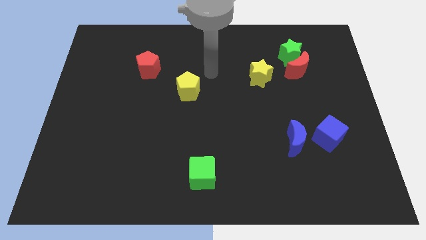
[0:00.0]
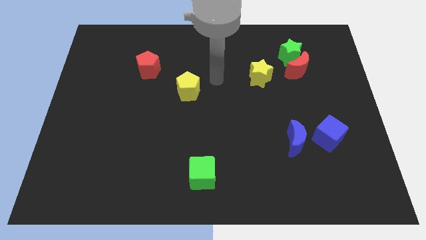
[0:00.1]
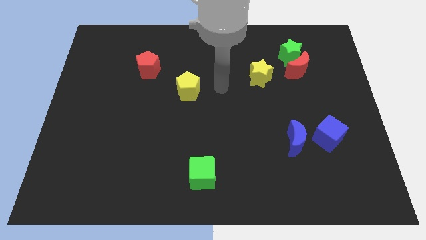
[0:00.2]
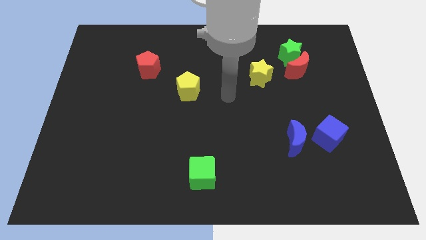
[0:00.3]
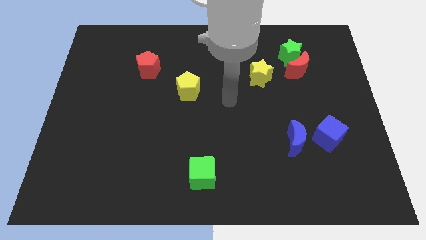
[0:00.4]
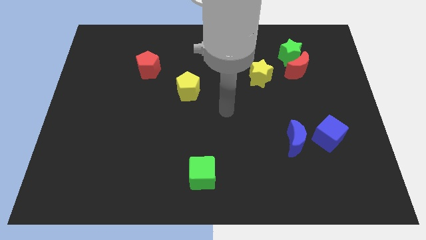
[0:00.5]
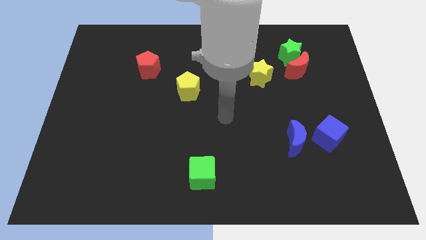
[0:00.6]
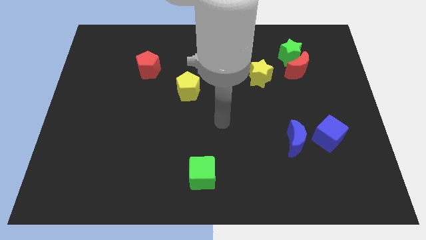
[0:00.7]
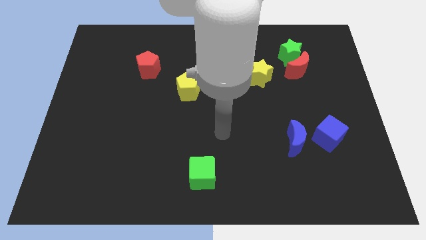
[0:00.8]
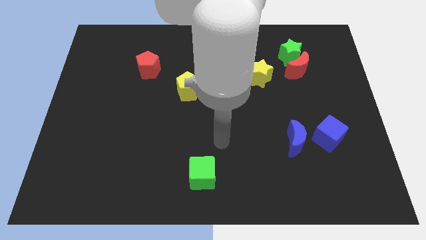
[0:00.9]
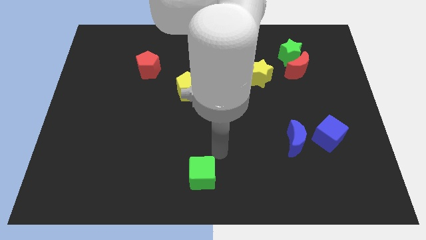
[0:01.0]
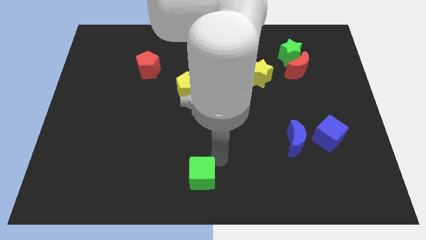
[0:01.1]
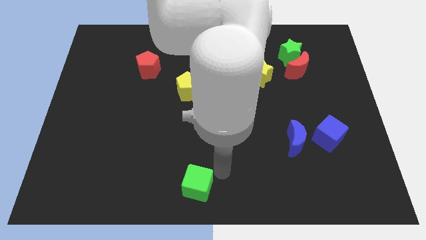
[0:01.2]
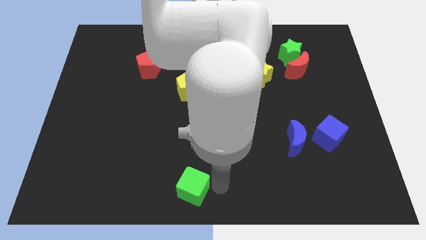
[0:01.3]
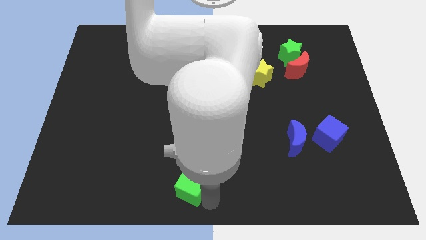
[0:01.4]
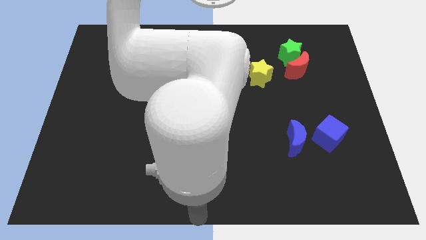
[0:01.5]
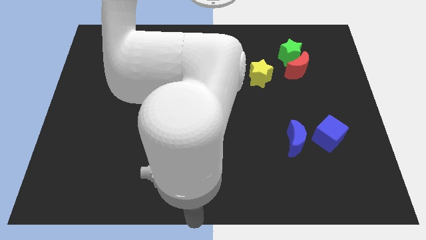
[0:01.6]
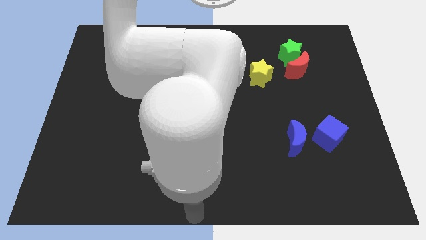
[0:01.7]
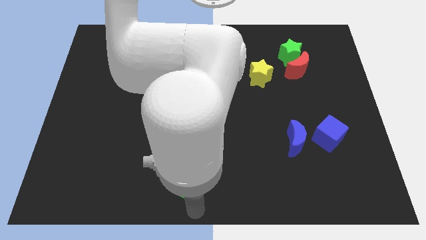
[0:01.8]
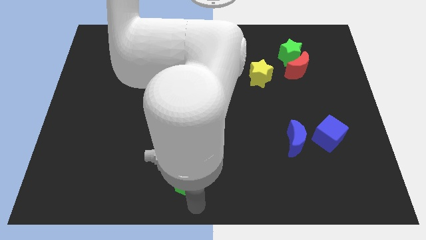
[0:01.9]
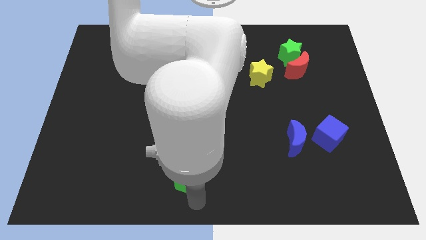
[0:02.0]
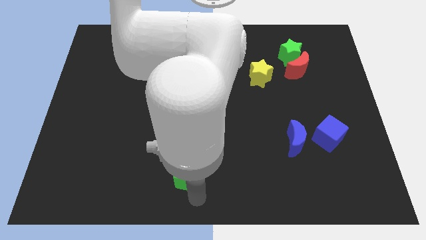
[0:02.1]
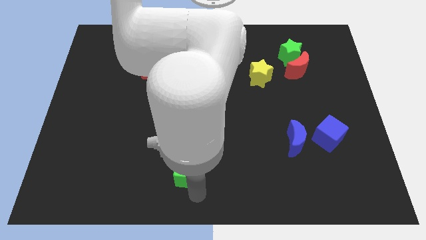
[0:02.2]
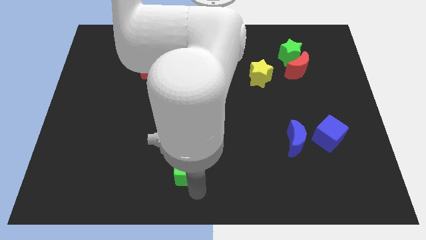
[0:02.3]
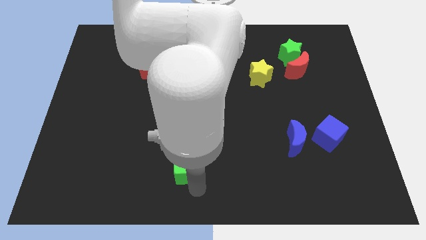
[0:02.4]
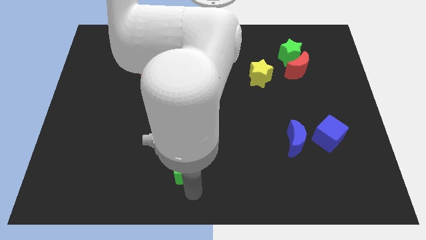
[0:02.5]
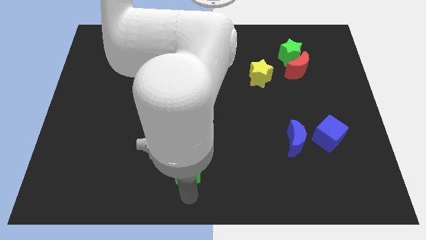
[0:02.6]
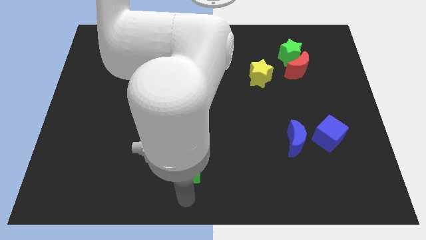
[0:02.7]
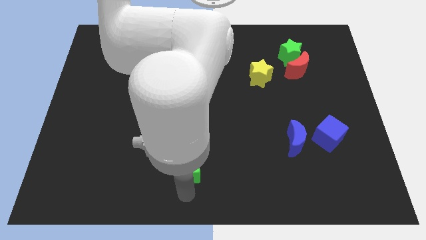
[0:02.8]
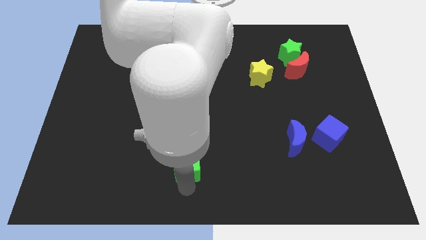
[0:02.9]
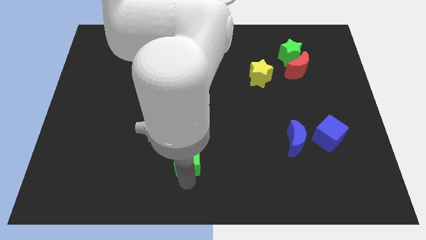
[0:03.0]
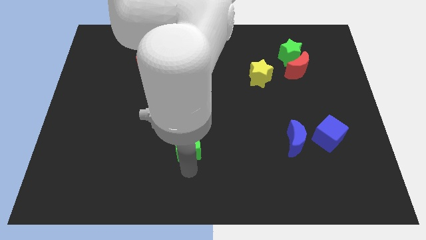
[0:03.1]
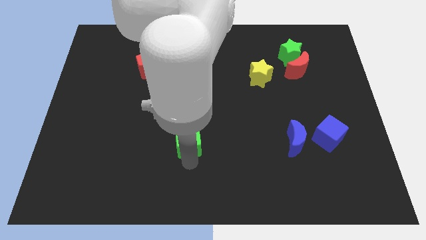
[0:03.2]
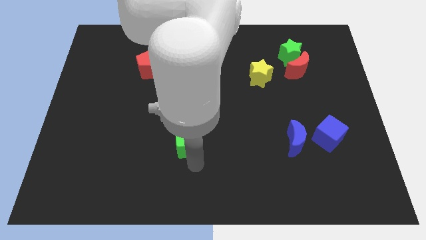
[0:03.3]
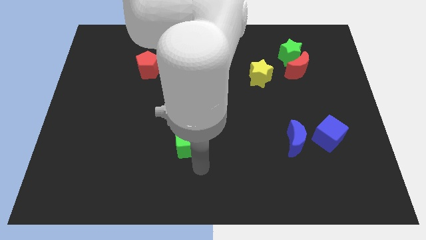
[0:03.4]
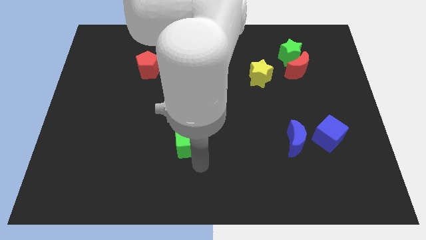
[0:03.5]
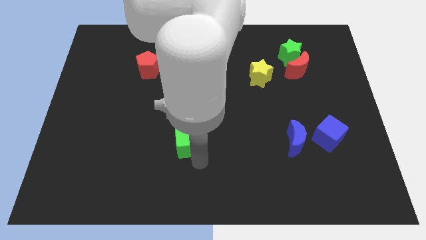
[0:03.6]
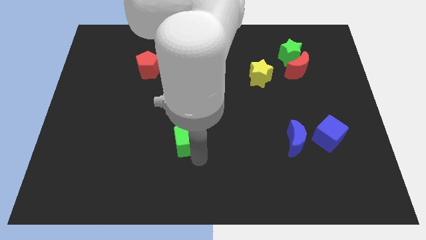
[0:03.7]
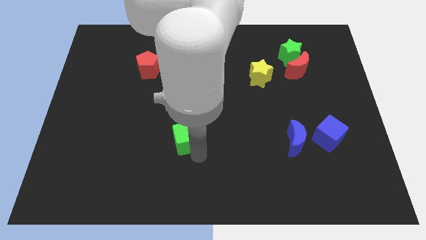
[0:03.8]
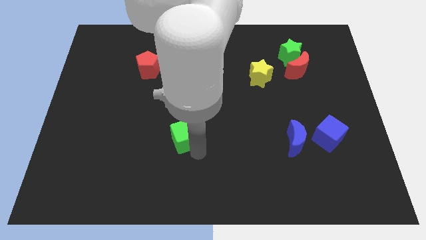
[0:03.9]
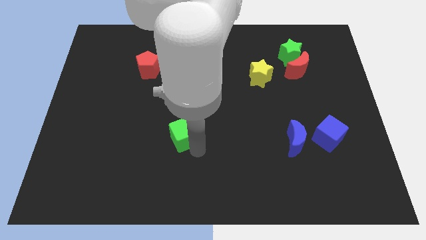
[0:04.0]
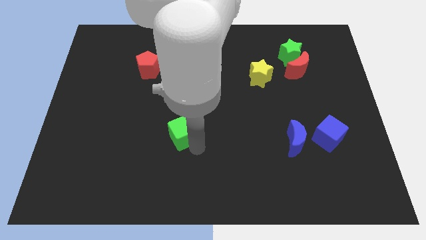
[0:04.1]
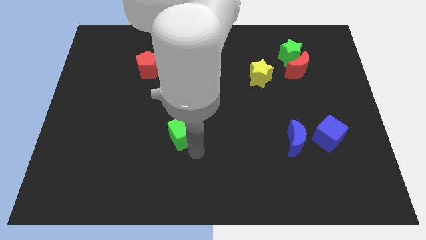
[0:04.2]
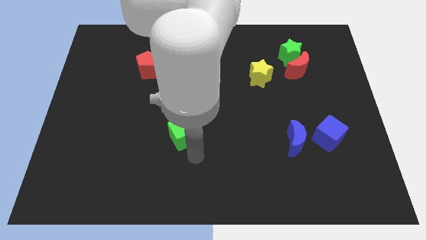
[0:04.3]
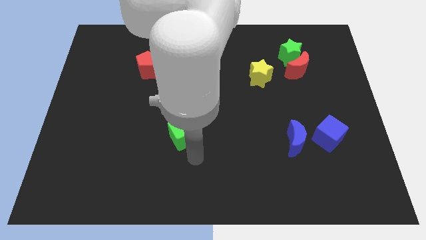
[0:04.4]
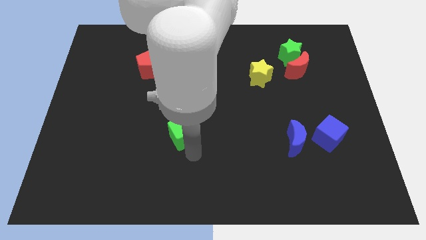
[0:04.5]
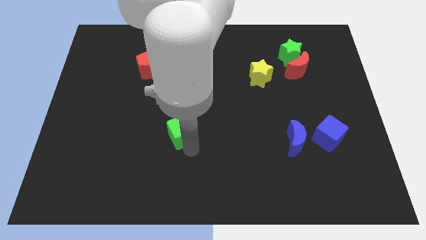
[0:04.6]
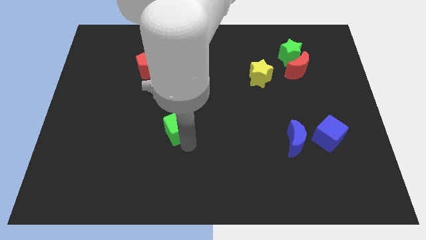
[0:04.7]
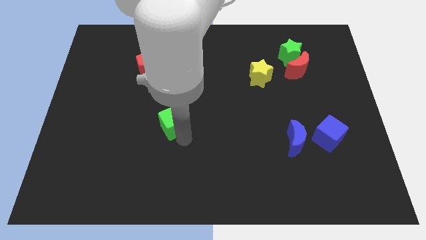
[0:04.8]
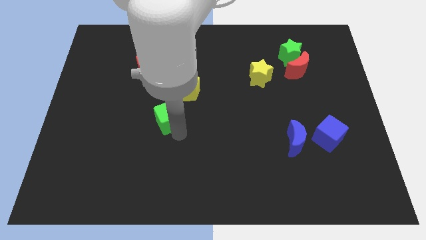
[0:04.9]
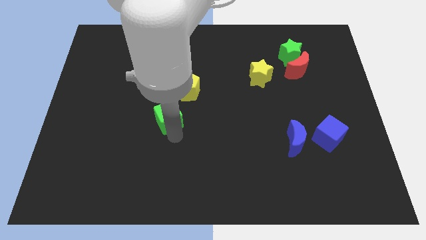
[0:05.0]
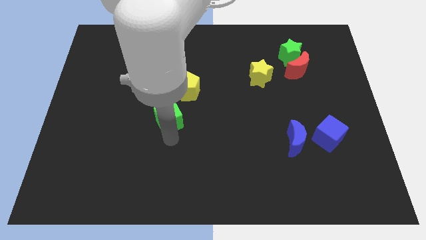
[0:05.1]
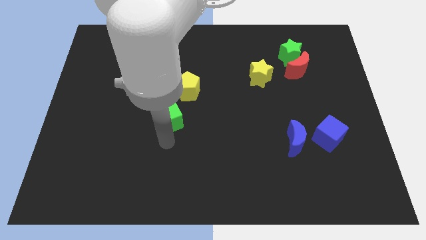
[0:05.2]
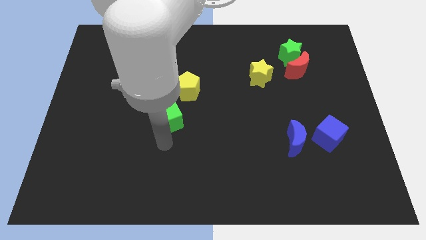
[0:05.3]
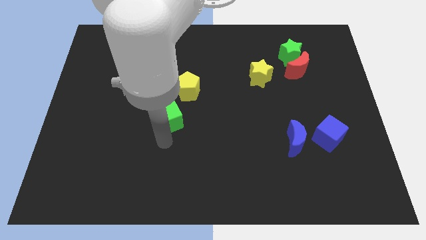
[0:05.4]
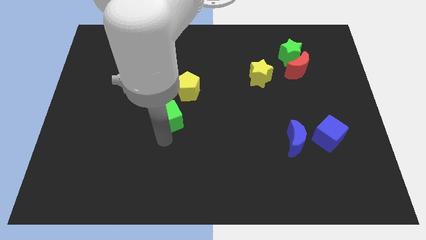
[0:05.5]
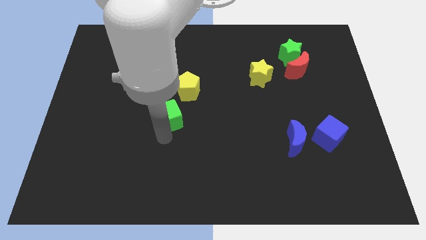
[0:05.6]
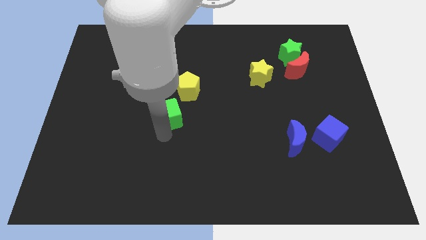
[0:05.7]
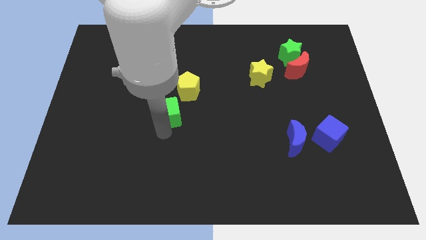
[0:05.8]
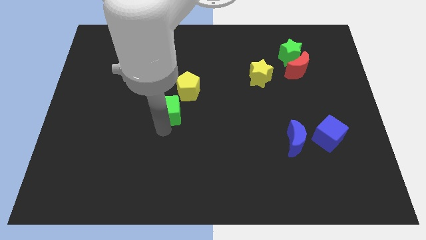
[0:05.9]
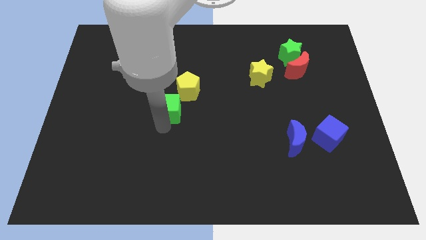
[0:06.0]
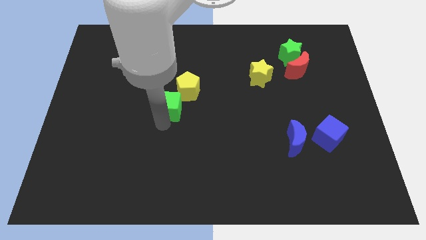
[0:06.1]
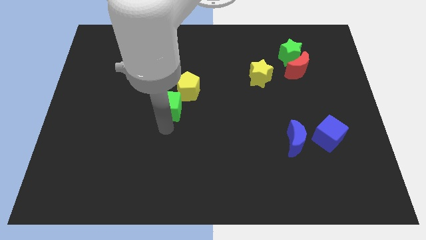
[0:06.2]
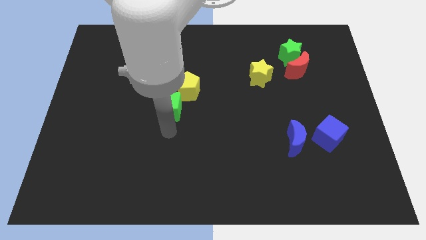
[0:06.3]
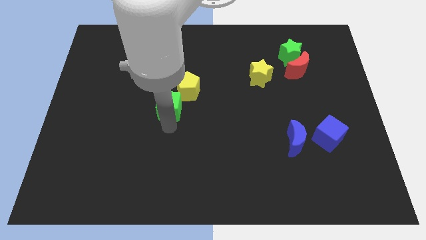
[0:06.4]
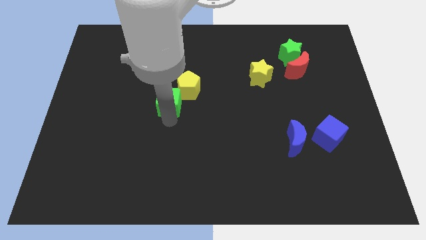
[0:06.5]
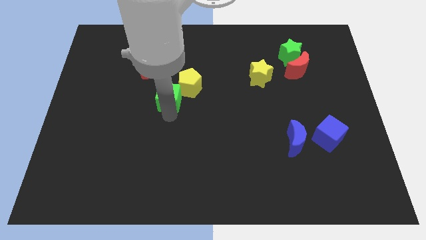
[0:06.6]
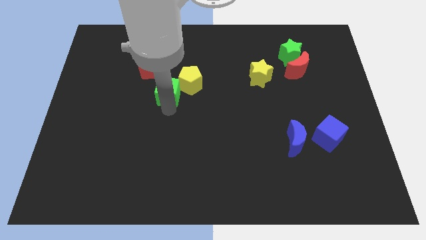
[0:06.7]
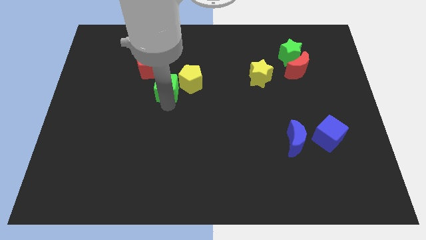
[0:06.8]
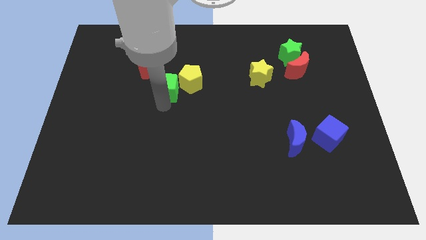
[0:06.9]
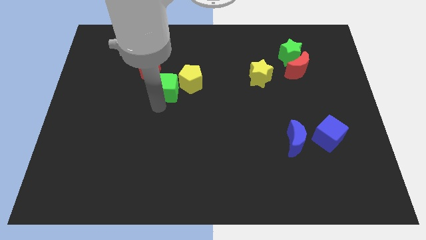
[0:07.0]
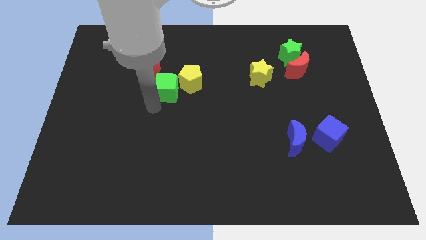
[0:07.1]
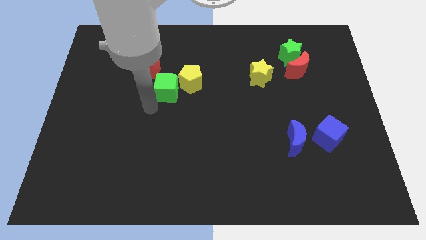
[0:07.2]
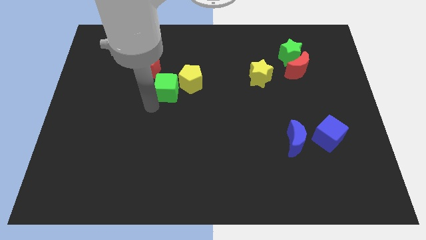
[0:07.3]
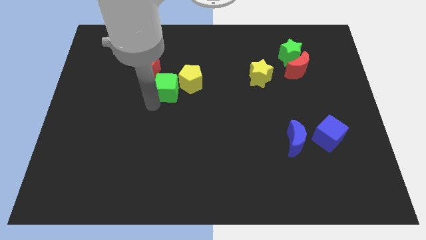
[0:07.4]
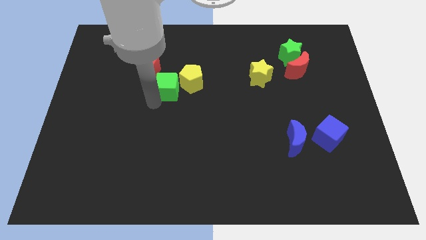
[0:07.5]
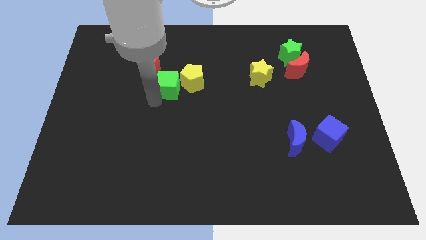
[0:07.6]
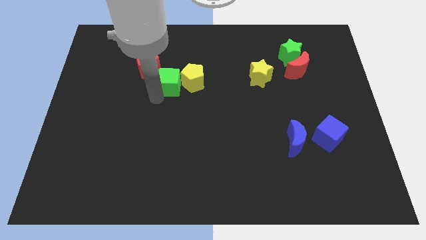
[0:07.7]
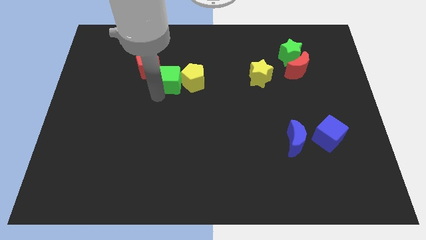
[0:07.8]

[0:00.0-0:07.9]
put the green cube just right of the red pentagon
